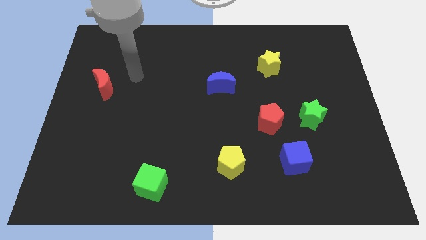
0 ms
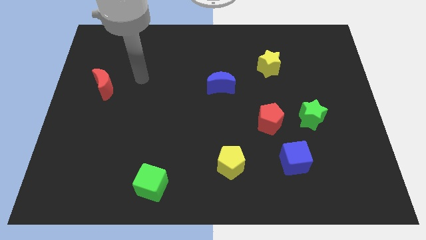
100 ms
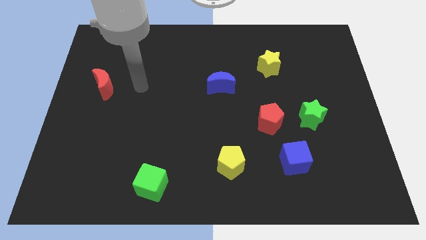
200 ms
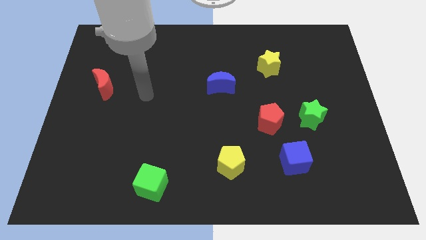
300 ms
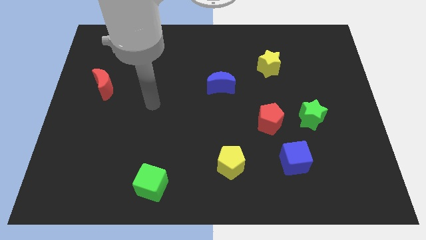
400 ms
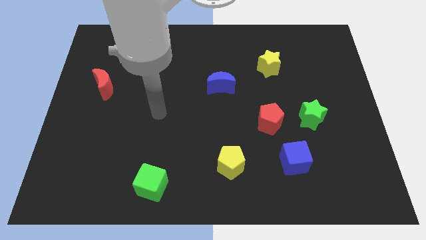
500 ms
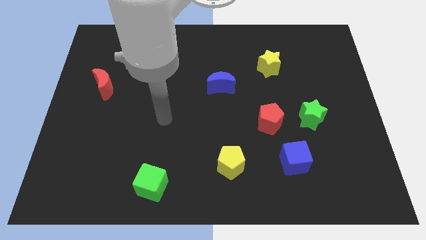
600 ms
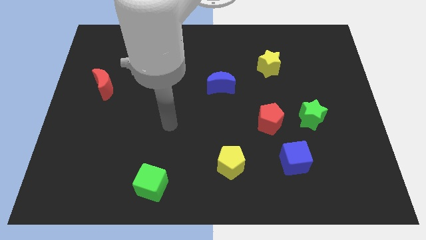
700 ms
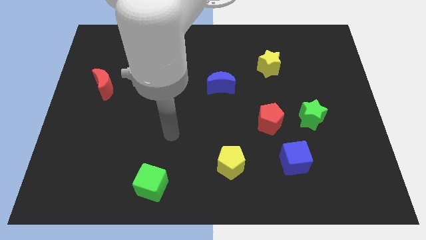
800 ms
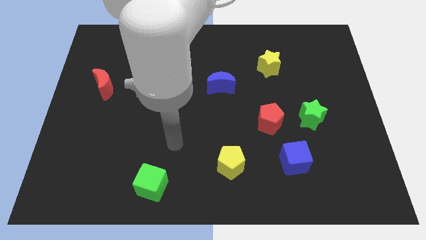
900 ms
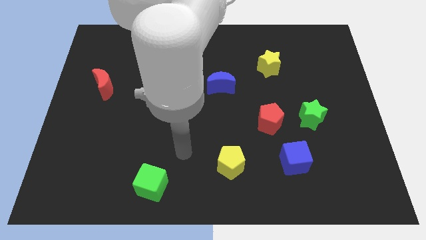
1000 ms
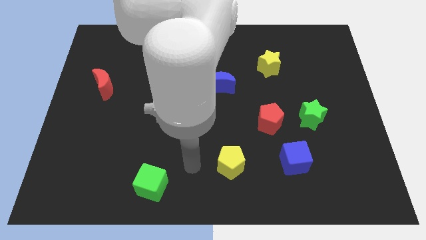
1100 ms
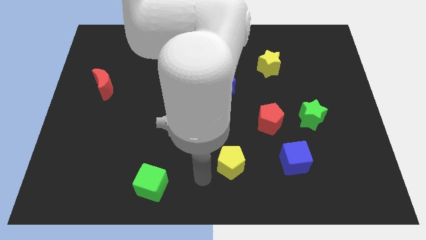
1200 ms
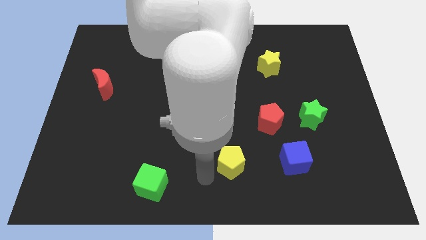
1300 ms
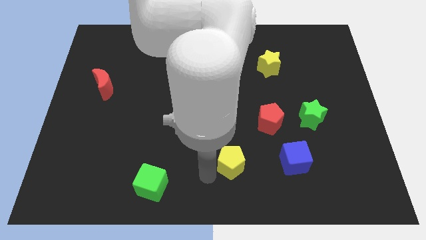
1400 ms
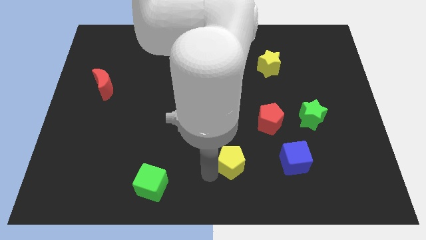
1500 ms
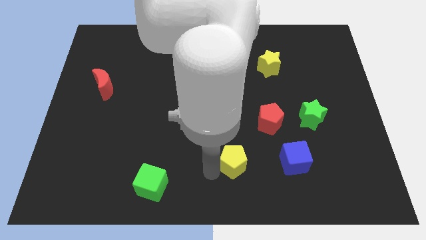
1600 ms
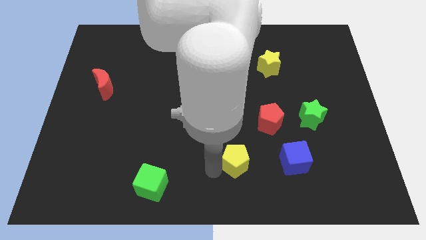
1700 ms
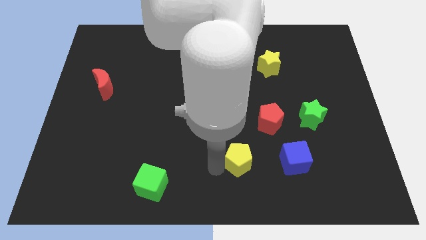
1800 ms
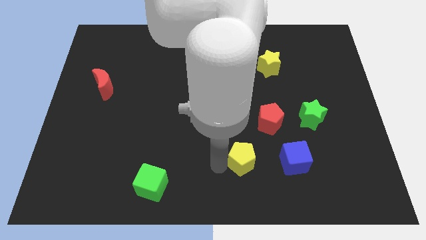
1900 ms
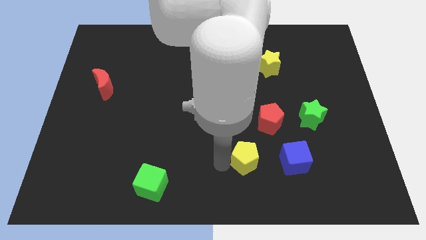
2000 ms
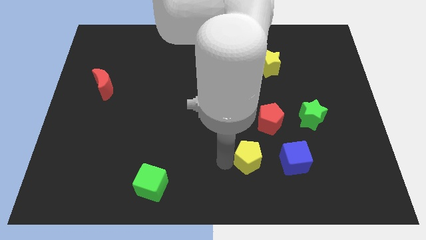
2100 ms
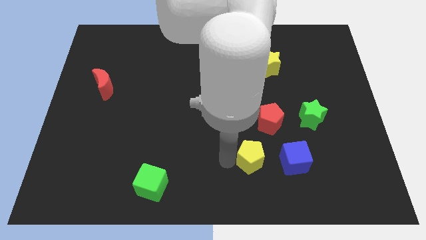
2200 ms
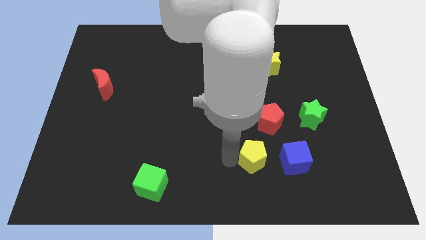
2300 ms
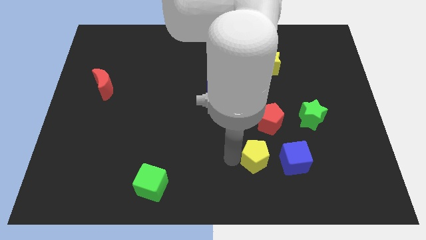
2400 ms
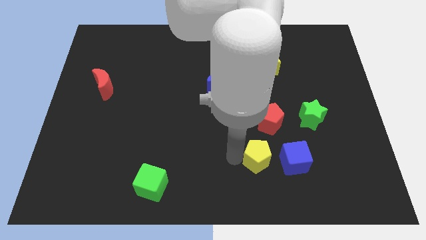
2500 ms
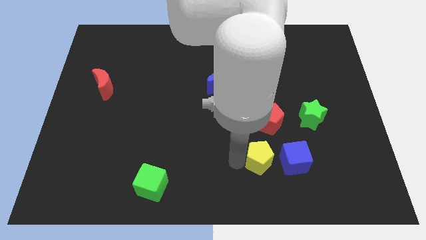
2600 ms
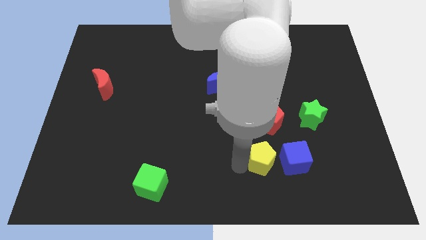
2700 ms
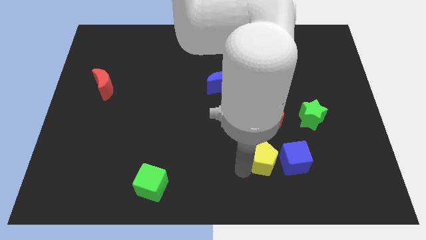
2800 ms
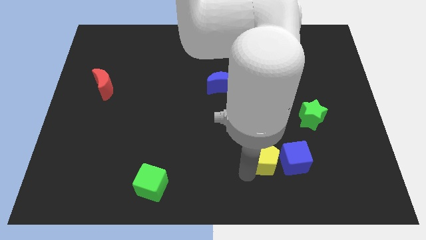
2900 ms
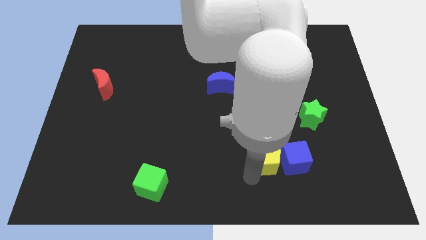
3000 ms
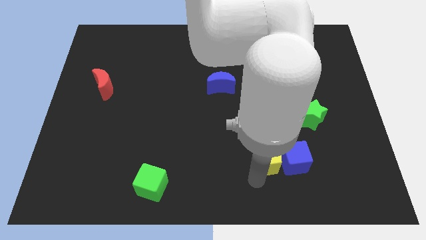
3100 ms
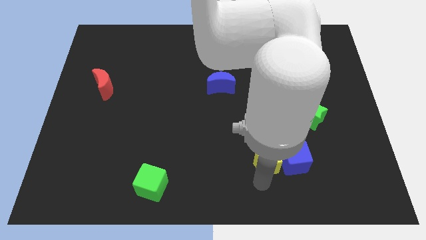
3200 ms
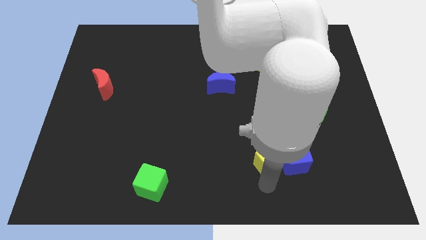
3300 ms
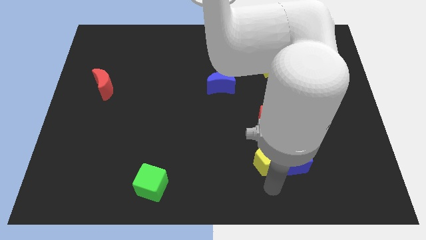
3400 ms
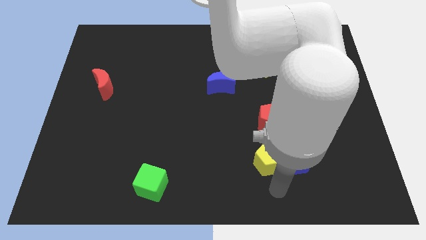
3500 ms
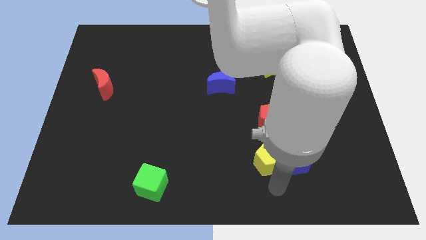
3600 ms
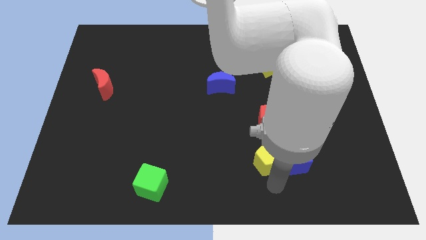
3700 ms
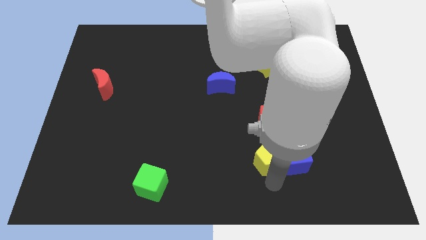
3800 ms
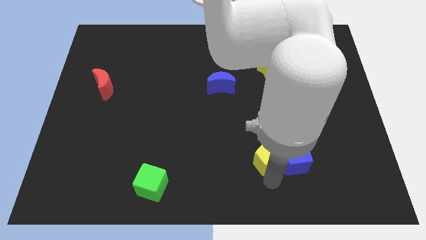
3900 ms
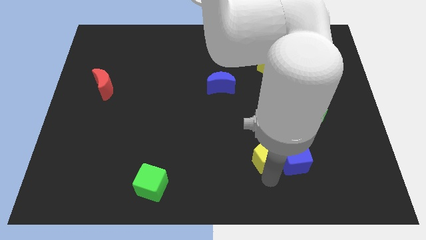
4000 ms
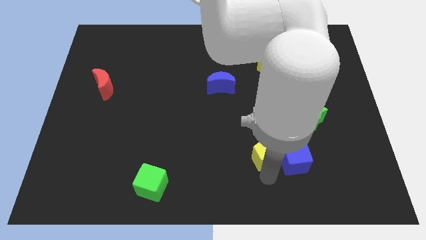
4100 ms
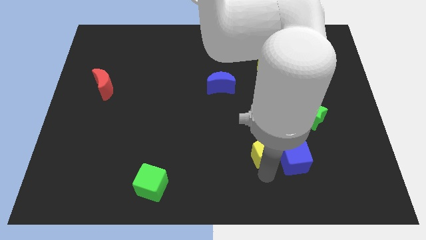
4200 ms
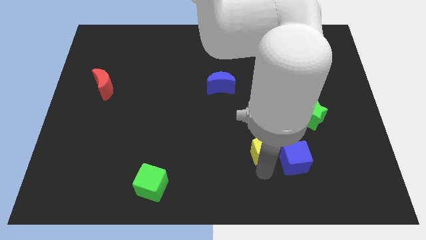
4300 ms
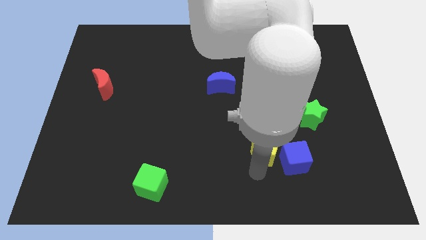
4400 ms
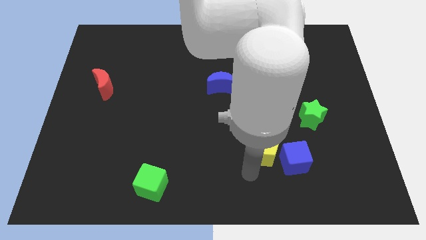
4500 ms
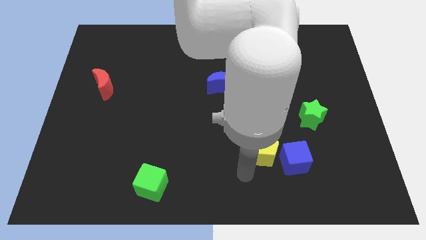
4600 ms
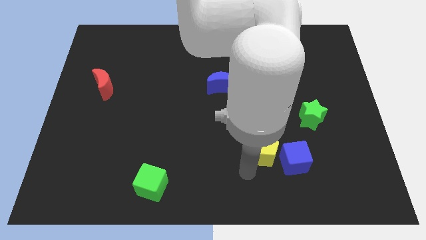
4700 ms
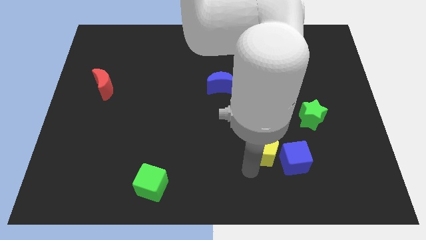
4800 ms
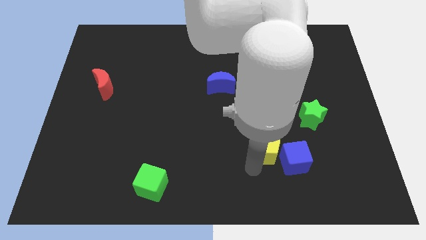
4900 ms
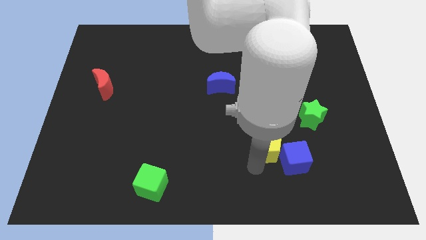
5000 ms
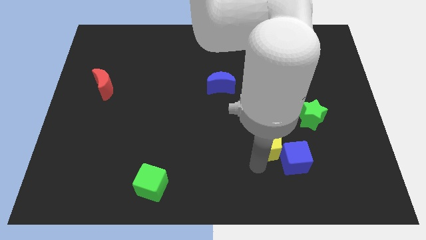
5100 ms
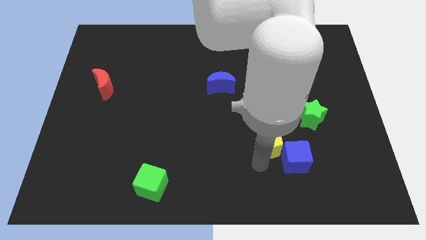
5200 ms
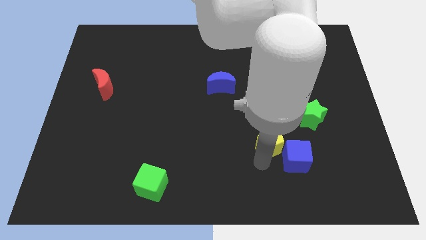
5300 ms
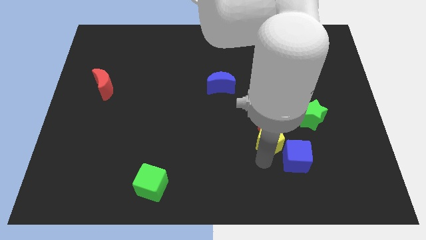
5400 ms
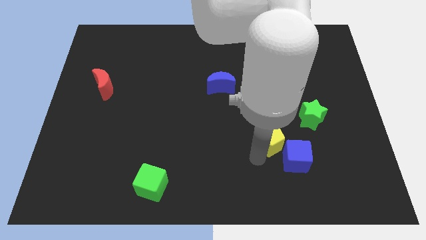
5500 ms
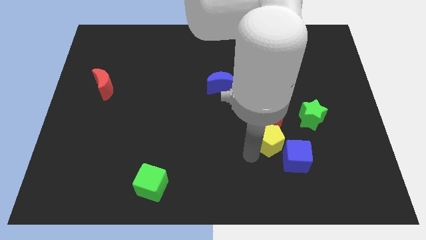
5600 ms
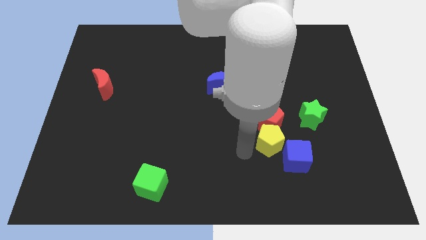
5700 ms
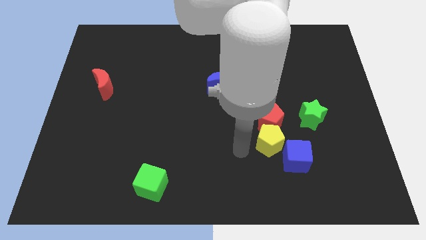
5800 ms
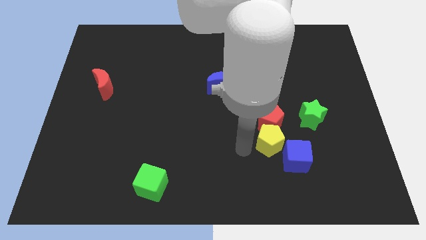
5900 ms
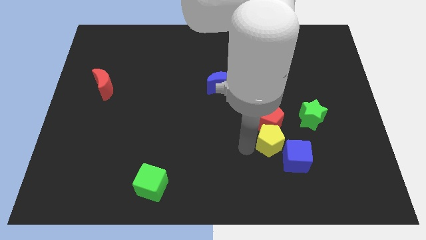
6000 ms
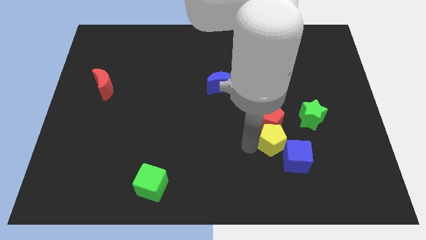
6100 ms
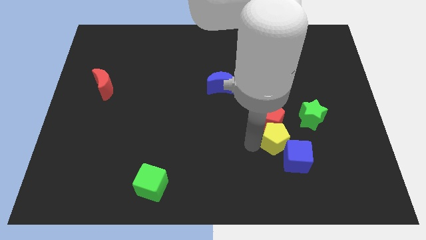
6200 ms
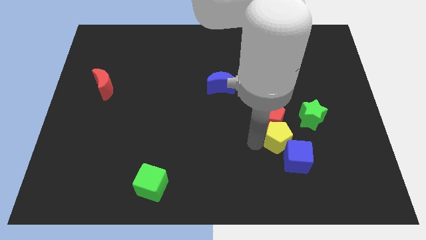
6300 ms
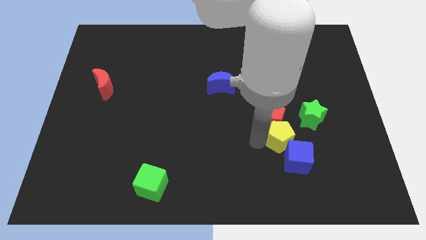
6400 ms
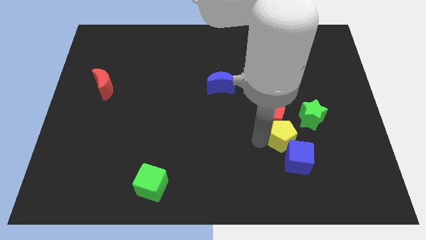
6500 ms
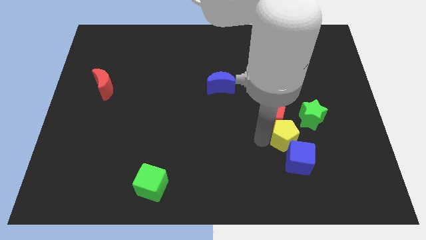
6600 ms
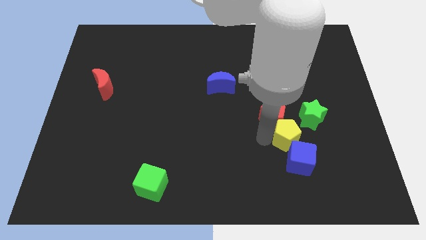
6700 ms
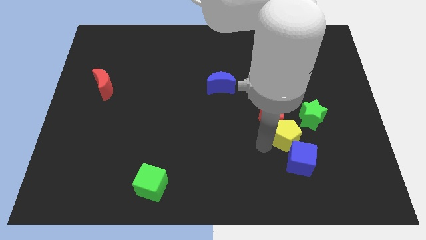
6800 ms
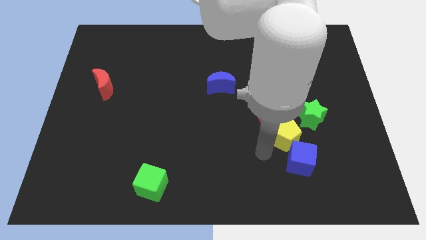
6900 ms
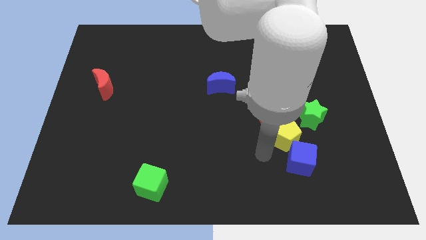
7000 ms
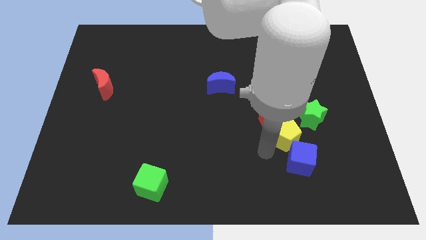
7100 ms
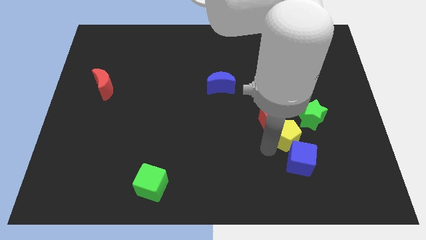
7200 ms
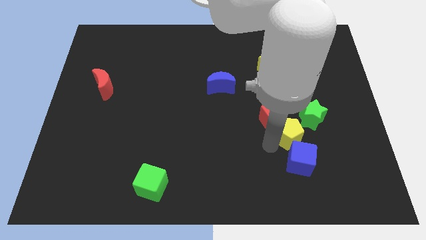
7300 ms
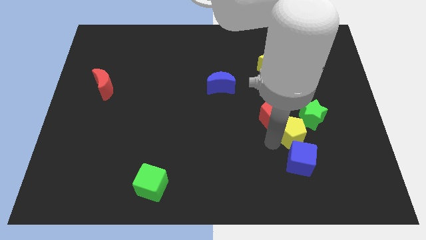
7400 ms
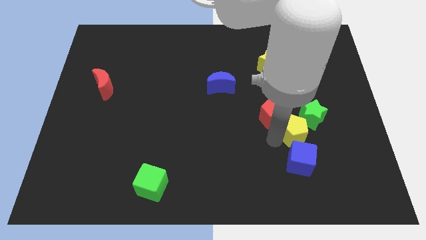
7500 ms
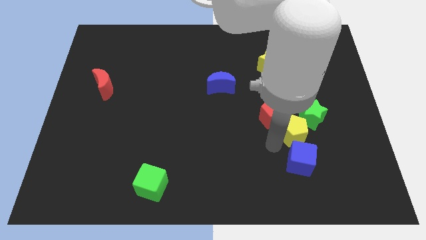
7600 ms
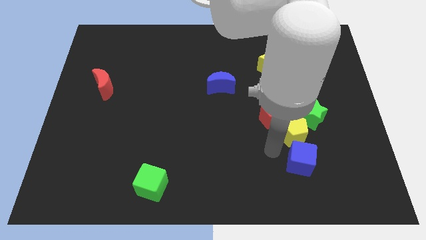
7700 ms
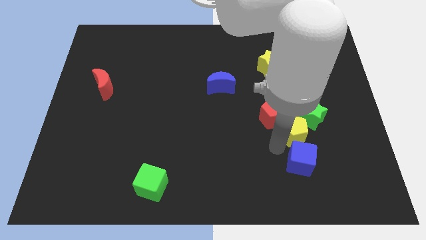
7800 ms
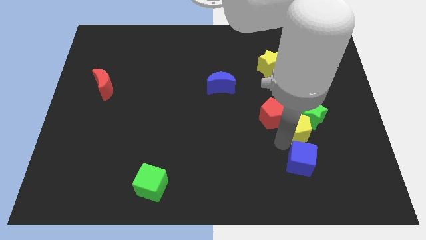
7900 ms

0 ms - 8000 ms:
put the yellow pentagon next to the green star
